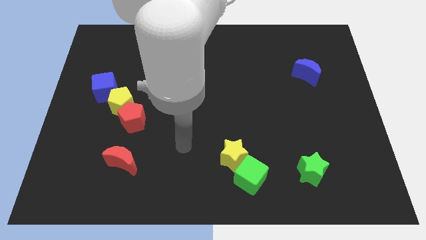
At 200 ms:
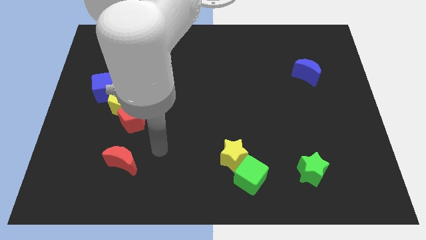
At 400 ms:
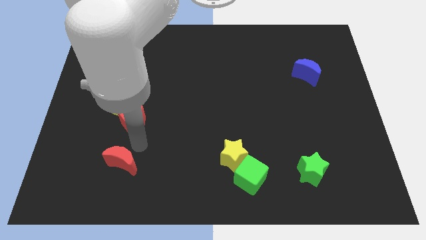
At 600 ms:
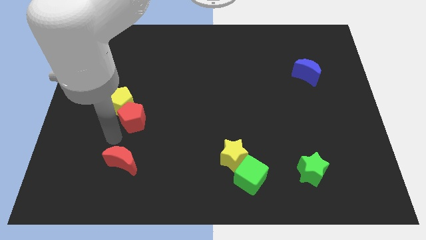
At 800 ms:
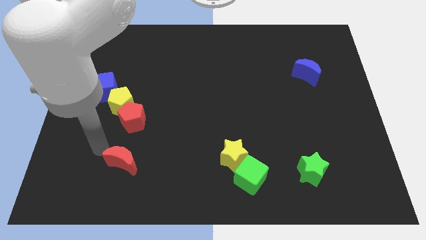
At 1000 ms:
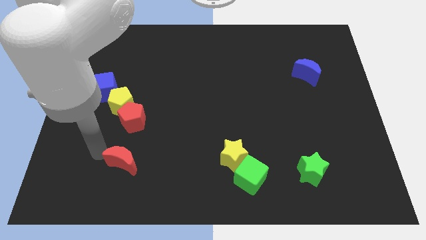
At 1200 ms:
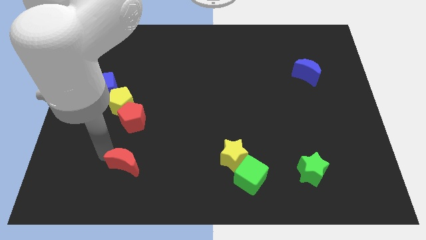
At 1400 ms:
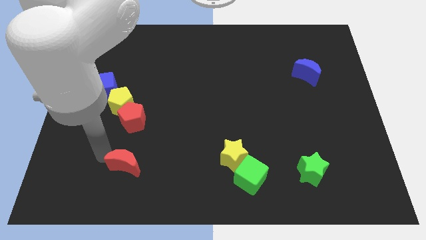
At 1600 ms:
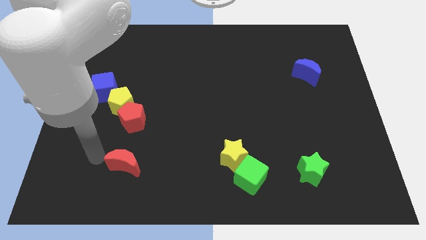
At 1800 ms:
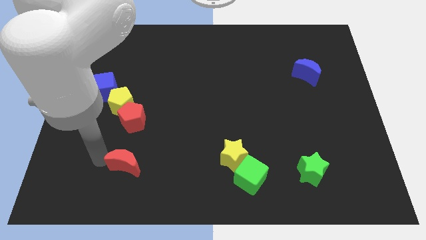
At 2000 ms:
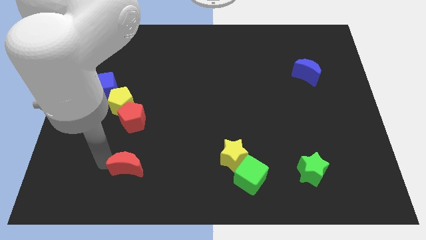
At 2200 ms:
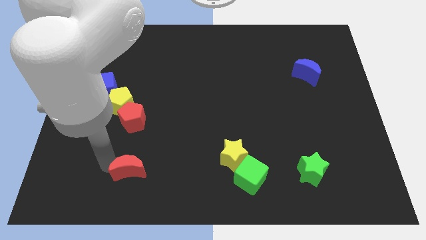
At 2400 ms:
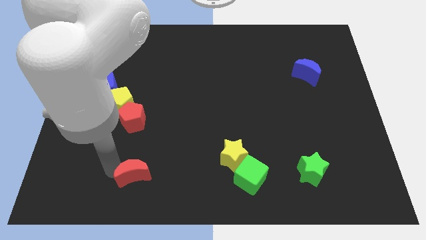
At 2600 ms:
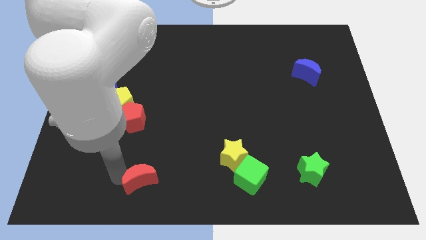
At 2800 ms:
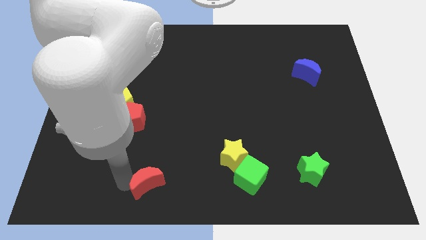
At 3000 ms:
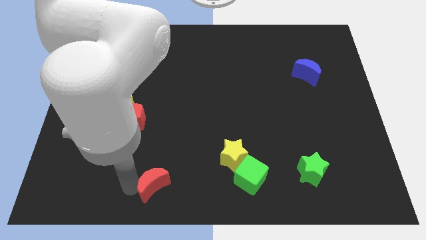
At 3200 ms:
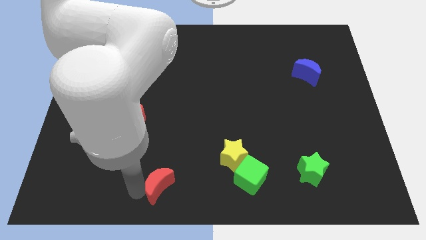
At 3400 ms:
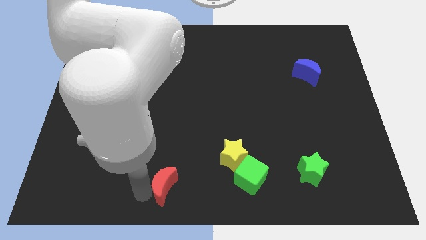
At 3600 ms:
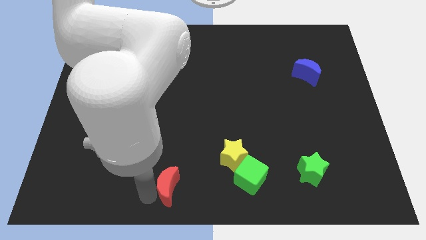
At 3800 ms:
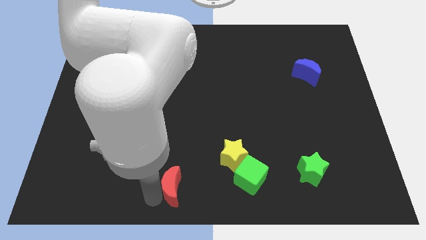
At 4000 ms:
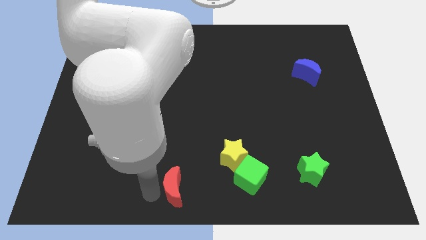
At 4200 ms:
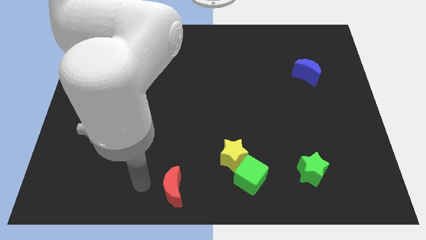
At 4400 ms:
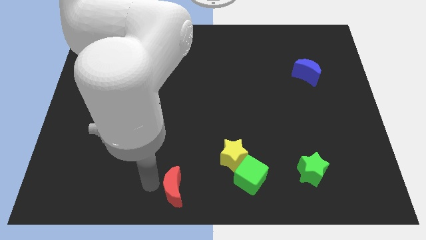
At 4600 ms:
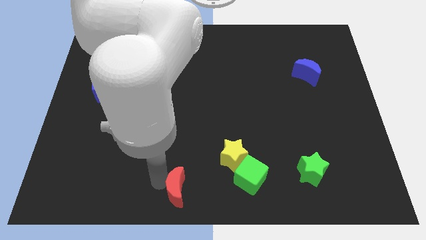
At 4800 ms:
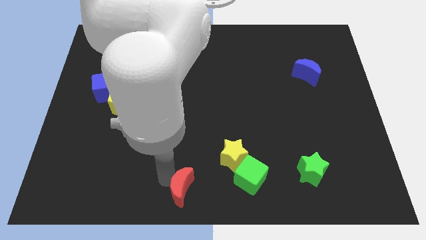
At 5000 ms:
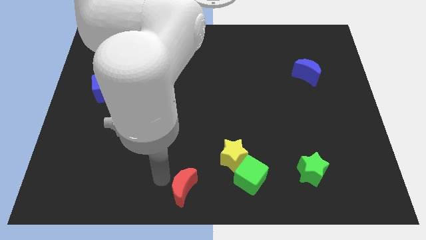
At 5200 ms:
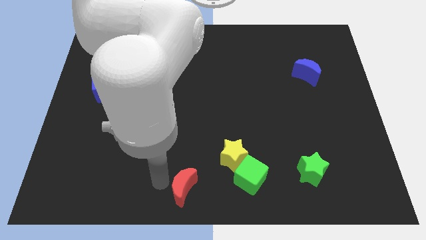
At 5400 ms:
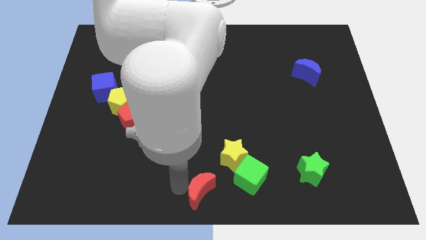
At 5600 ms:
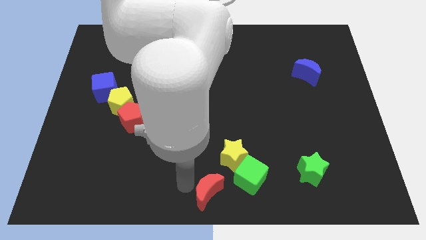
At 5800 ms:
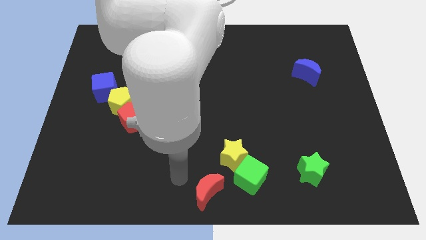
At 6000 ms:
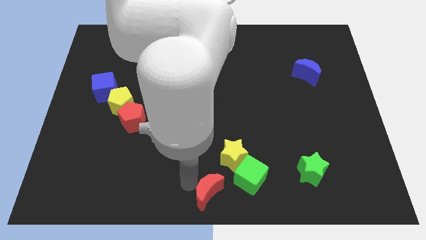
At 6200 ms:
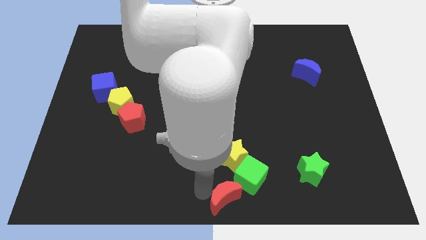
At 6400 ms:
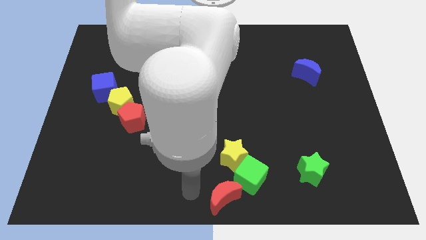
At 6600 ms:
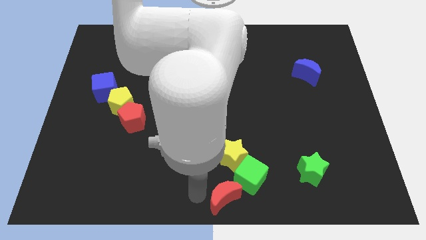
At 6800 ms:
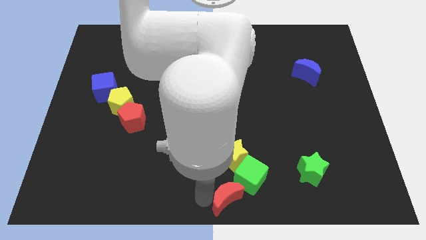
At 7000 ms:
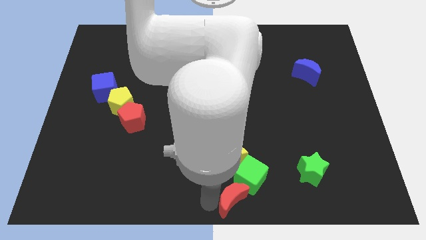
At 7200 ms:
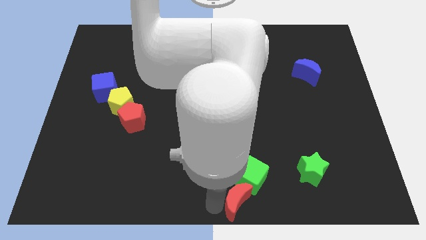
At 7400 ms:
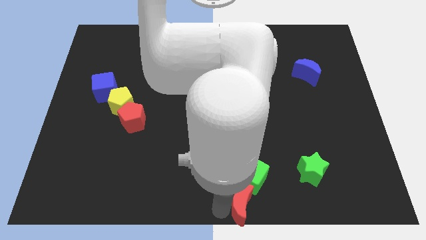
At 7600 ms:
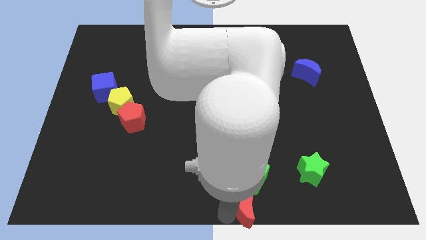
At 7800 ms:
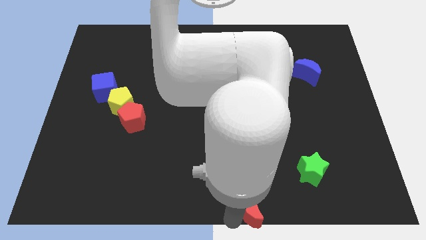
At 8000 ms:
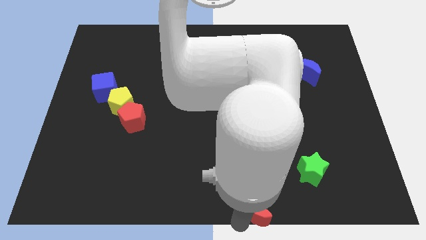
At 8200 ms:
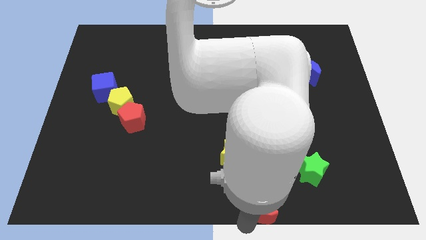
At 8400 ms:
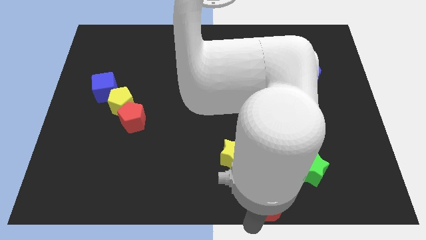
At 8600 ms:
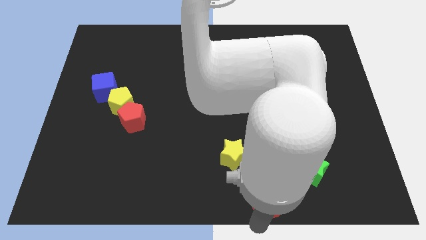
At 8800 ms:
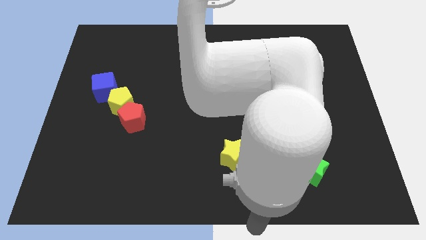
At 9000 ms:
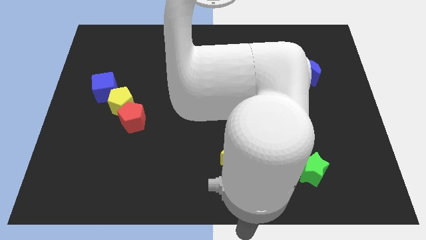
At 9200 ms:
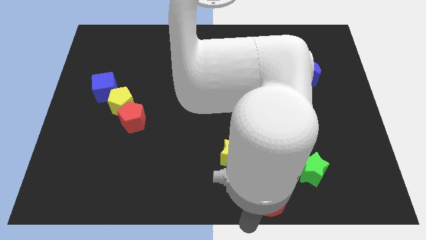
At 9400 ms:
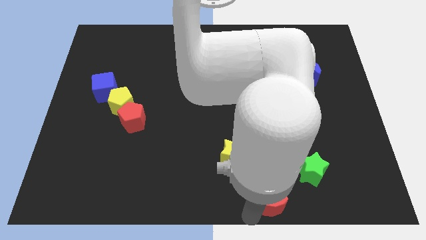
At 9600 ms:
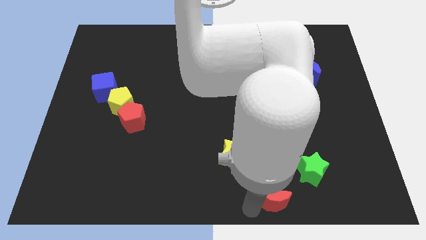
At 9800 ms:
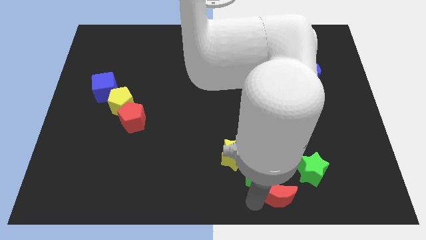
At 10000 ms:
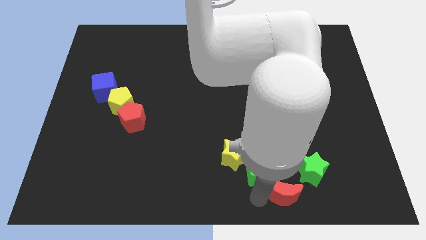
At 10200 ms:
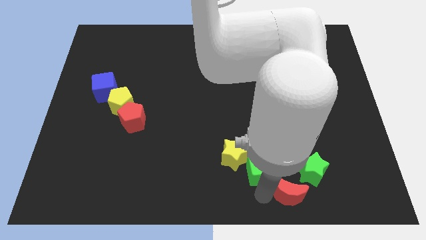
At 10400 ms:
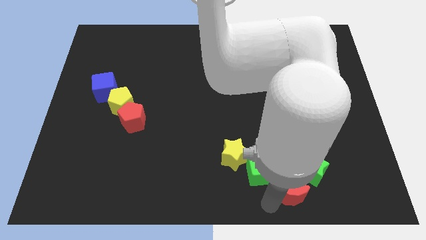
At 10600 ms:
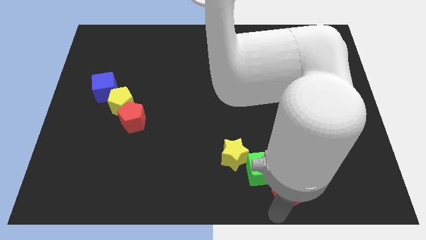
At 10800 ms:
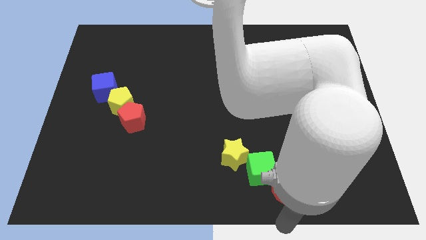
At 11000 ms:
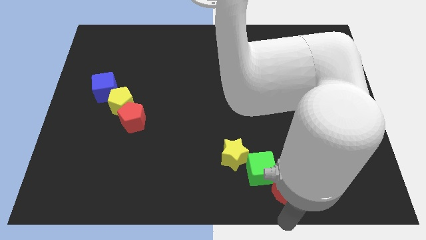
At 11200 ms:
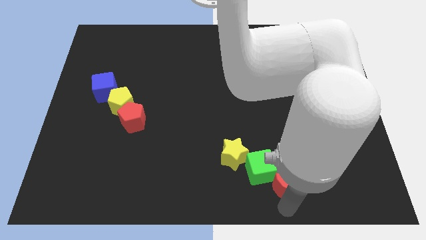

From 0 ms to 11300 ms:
push the red moon close to the green star

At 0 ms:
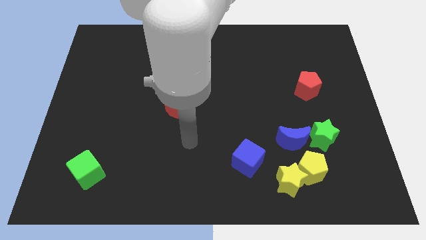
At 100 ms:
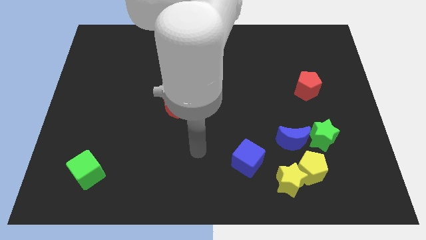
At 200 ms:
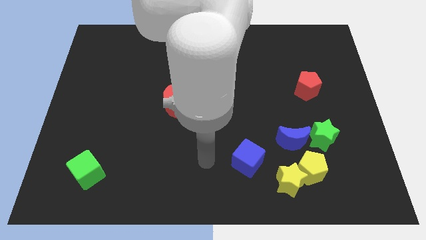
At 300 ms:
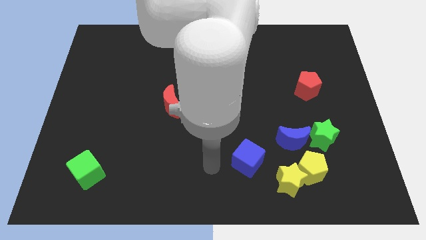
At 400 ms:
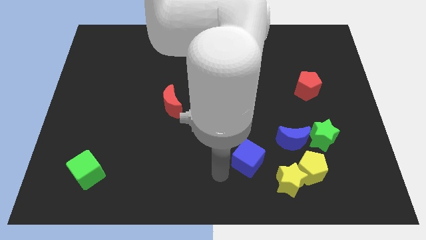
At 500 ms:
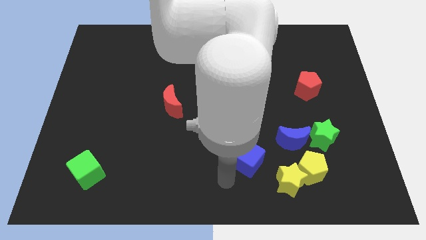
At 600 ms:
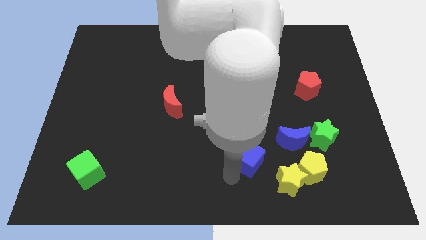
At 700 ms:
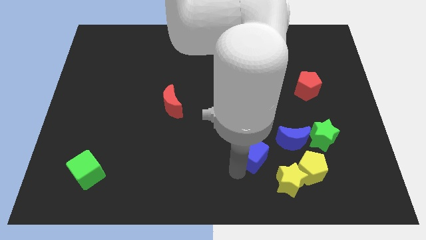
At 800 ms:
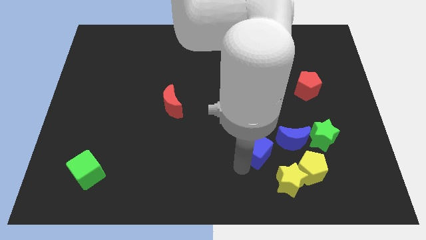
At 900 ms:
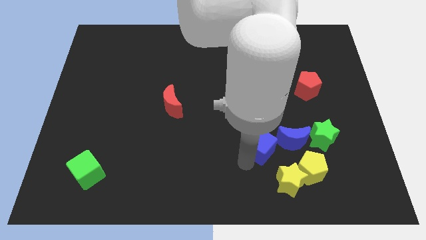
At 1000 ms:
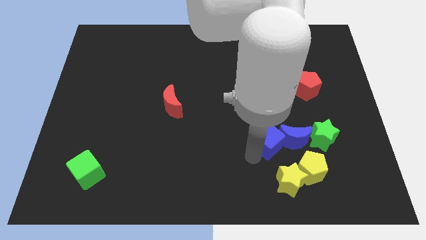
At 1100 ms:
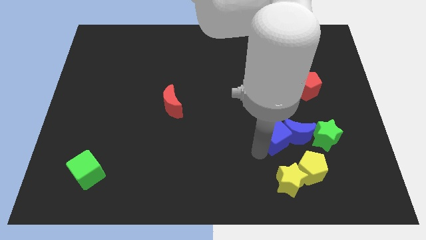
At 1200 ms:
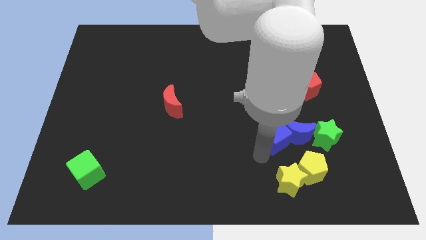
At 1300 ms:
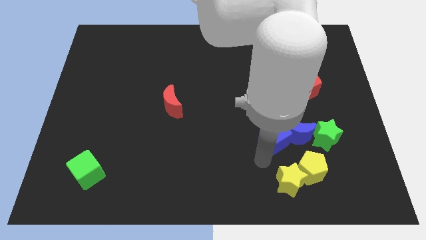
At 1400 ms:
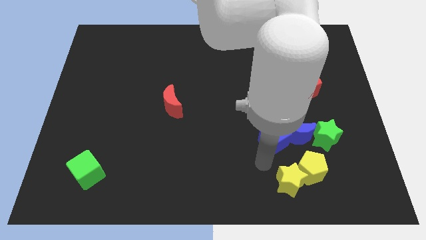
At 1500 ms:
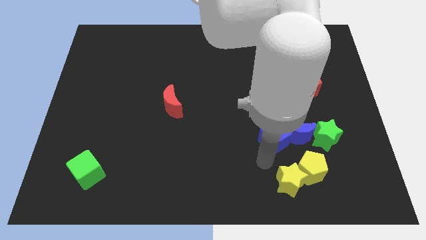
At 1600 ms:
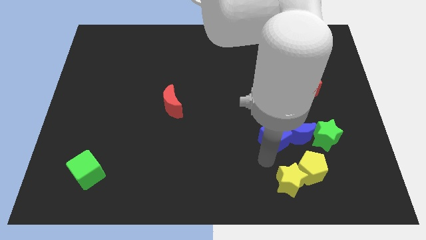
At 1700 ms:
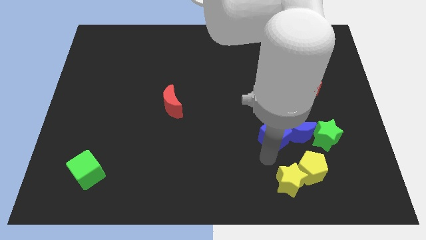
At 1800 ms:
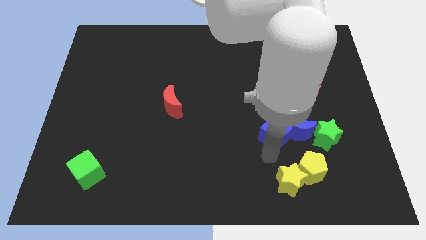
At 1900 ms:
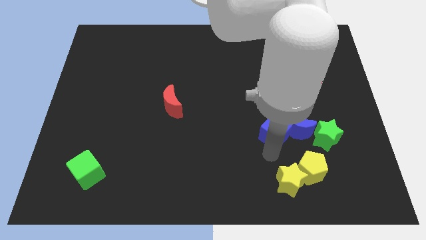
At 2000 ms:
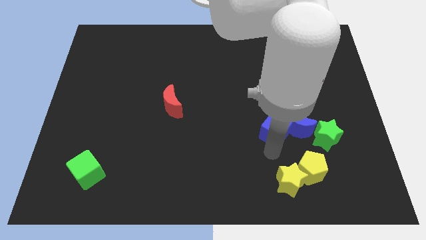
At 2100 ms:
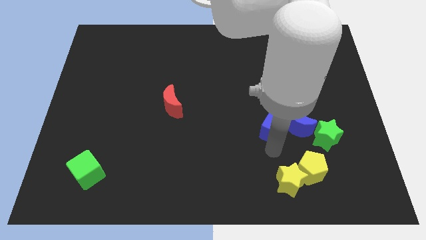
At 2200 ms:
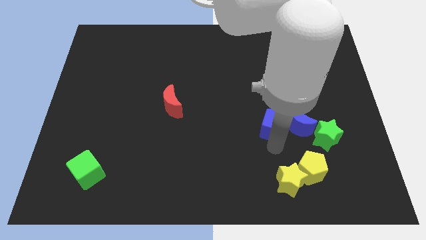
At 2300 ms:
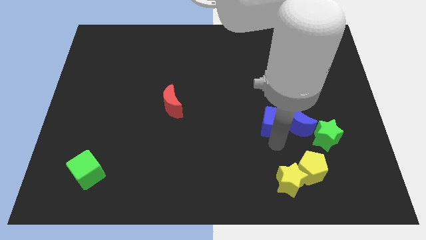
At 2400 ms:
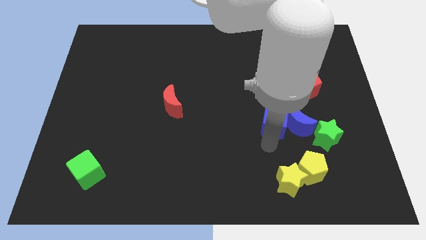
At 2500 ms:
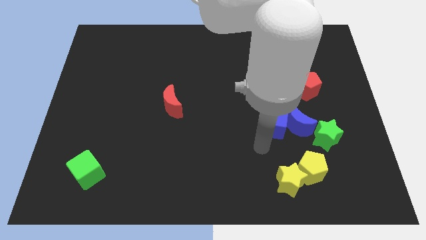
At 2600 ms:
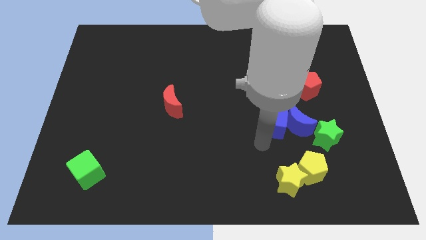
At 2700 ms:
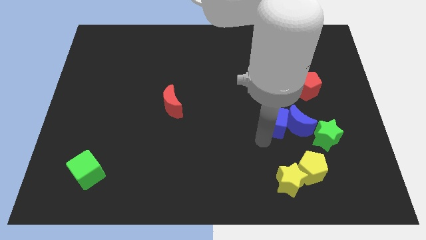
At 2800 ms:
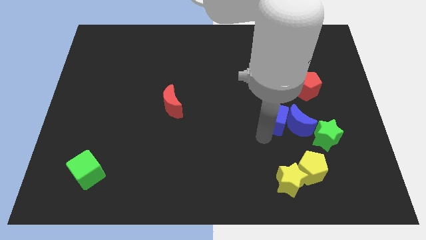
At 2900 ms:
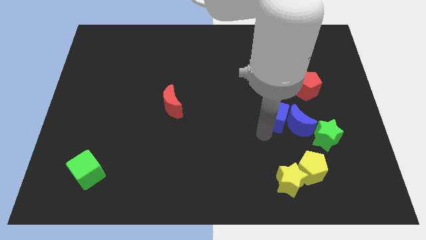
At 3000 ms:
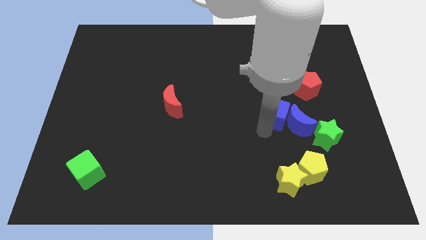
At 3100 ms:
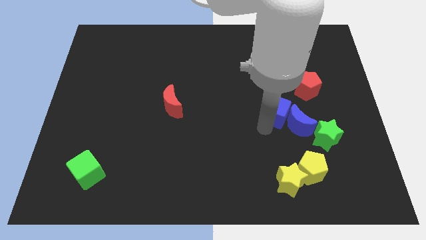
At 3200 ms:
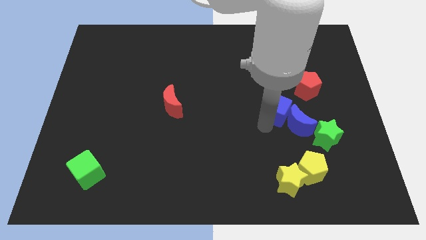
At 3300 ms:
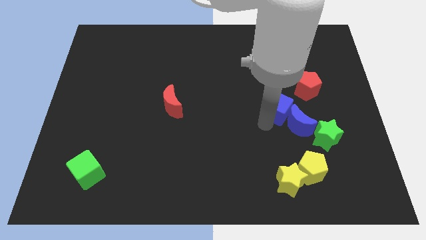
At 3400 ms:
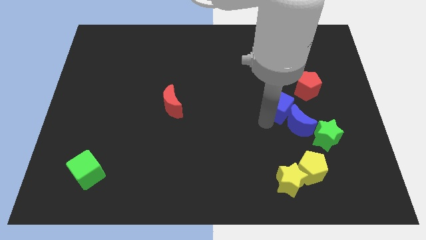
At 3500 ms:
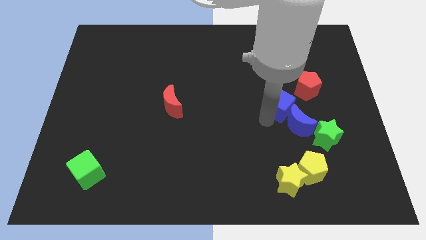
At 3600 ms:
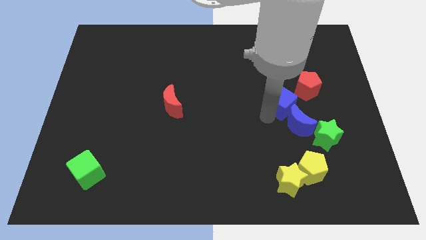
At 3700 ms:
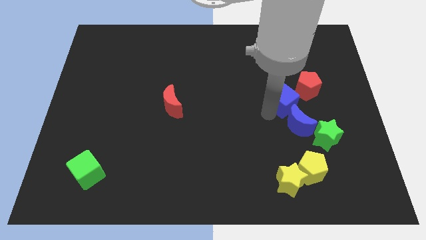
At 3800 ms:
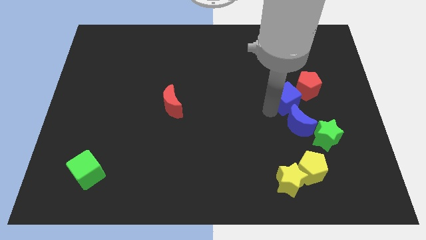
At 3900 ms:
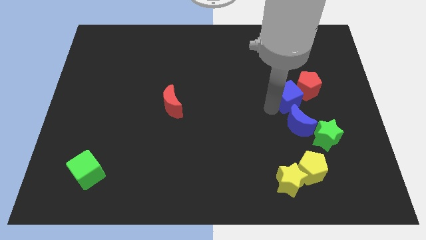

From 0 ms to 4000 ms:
slide the blue cube close to the red pentagon
